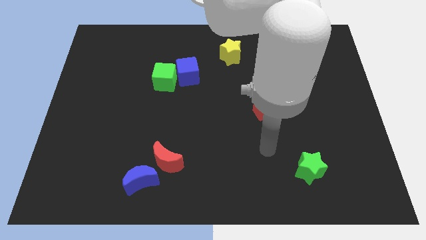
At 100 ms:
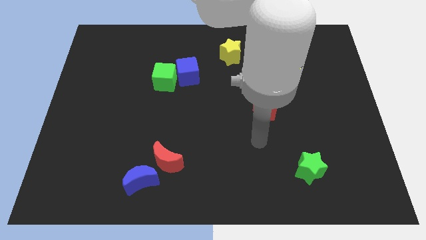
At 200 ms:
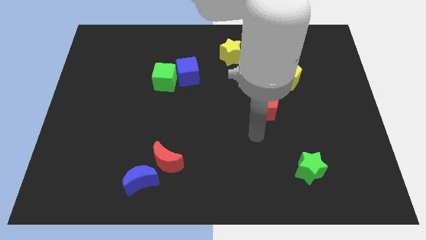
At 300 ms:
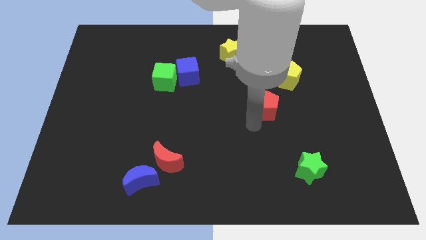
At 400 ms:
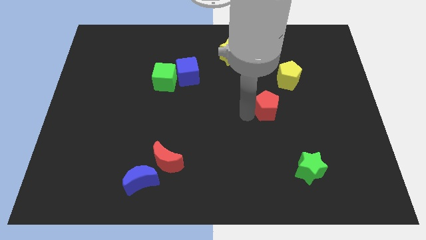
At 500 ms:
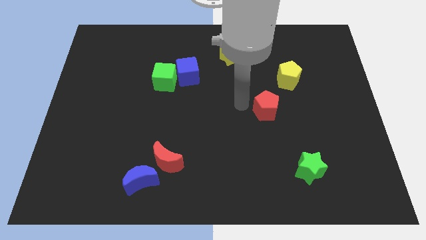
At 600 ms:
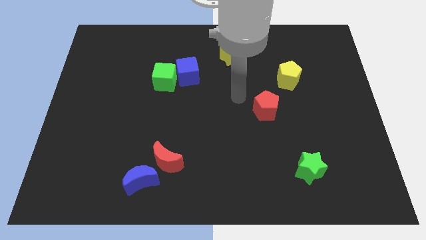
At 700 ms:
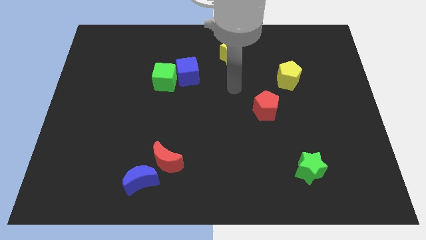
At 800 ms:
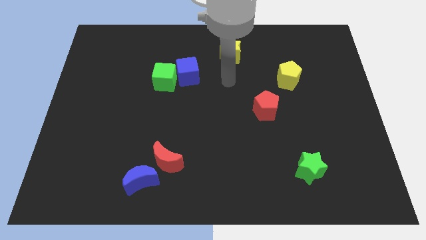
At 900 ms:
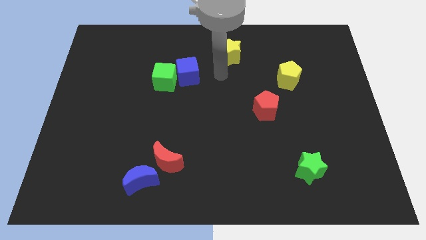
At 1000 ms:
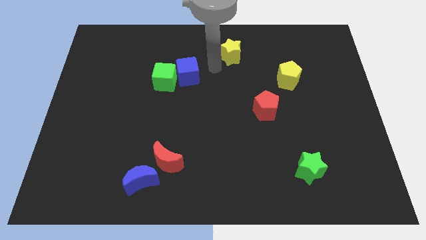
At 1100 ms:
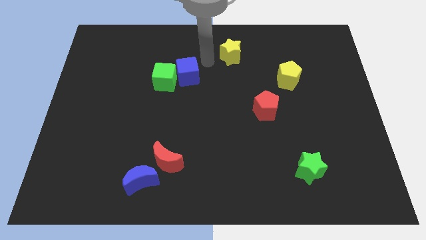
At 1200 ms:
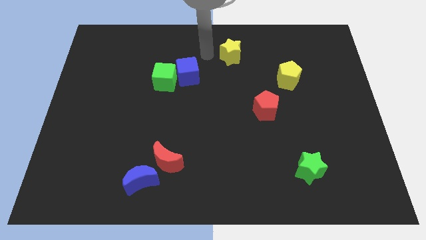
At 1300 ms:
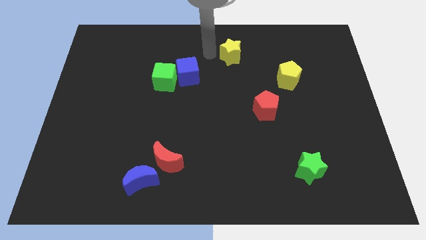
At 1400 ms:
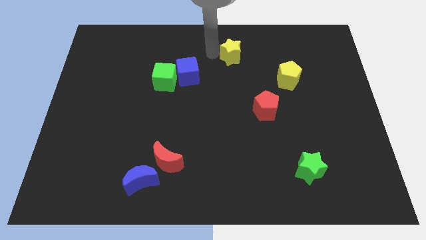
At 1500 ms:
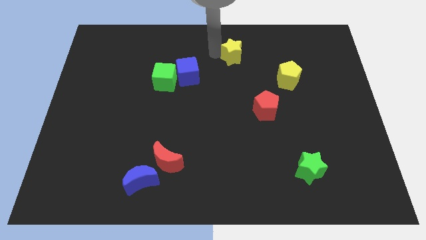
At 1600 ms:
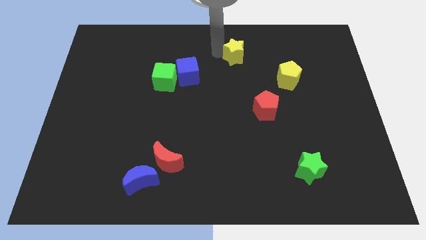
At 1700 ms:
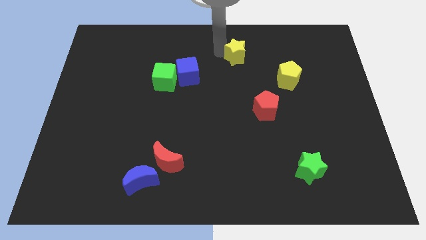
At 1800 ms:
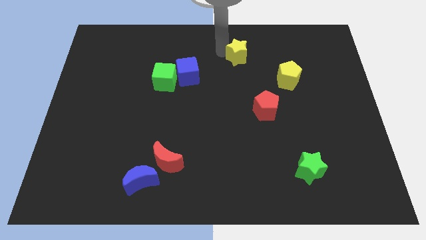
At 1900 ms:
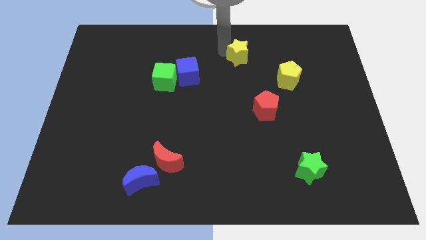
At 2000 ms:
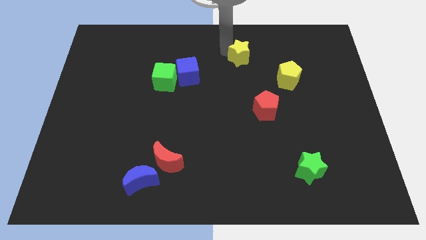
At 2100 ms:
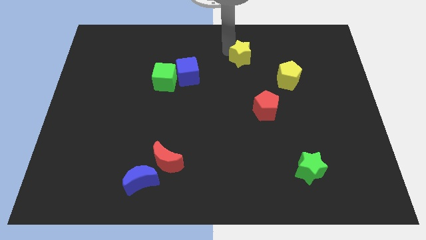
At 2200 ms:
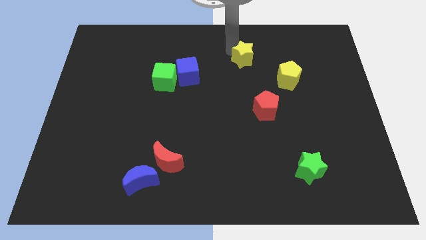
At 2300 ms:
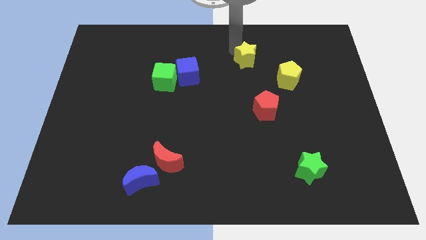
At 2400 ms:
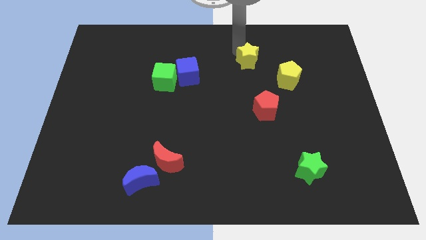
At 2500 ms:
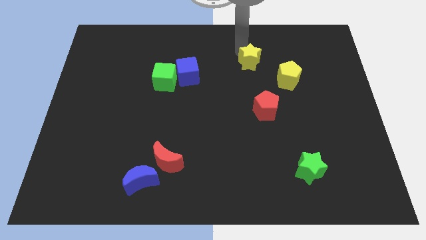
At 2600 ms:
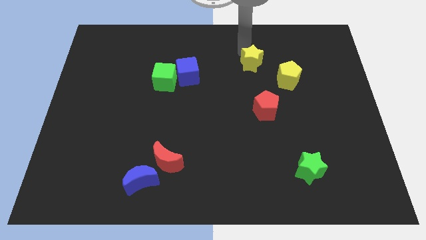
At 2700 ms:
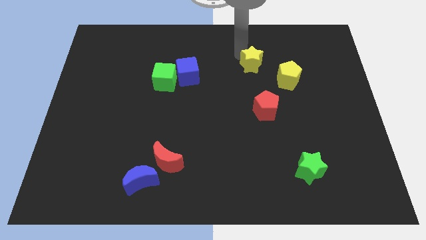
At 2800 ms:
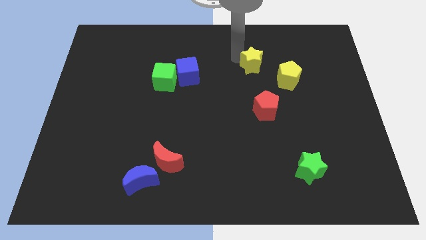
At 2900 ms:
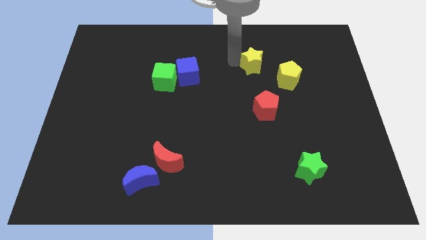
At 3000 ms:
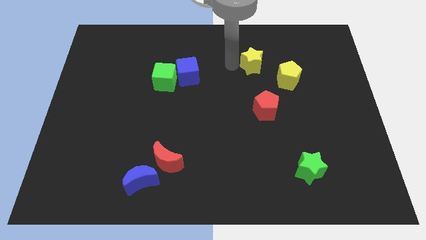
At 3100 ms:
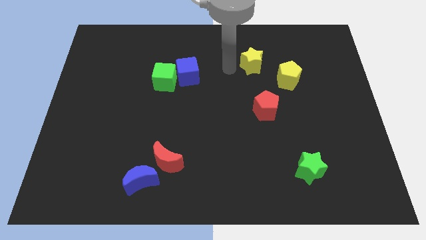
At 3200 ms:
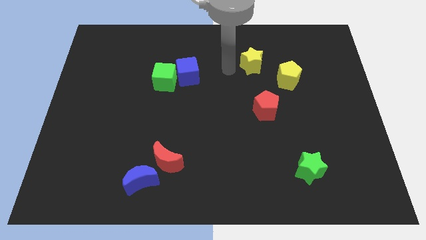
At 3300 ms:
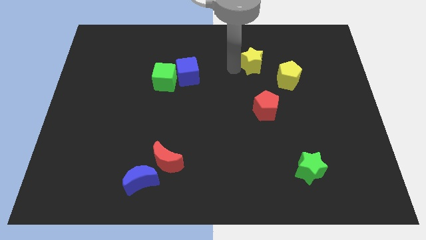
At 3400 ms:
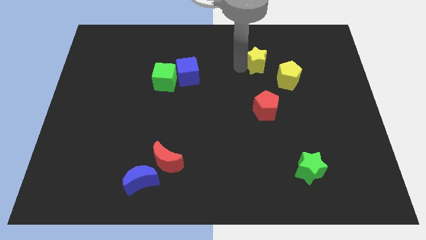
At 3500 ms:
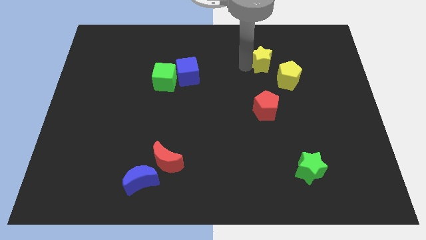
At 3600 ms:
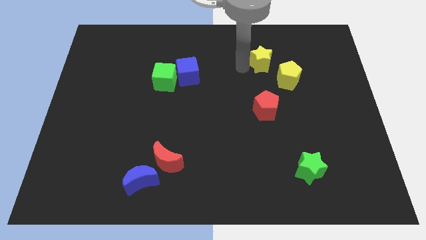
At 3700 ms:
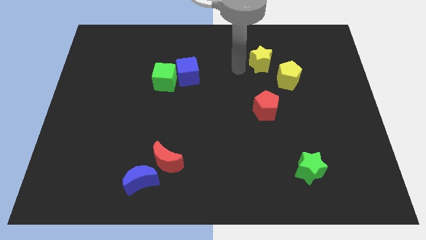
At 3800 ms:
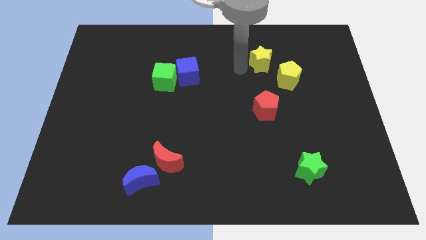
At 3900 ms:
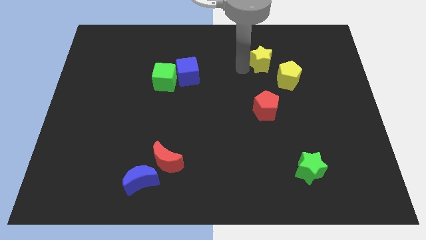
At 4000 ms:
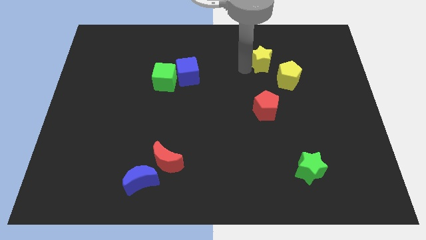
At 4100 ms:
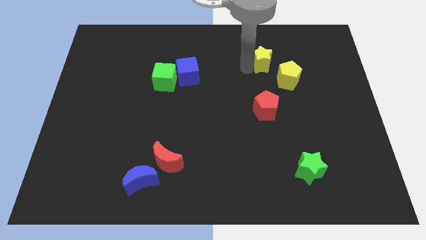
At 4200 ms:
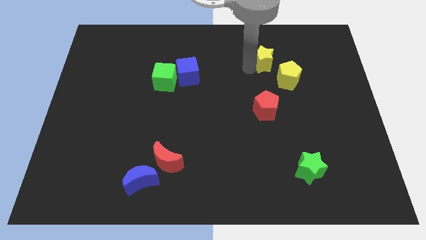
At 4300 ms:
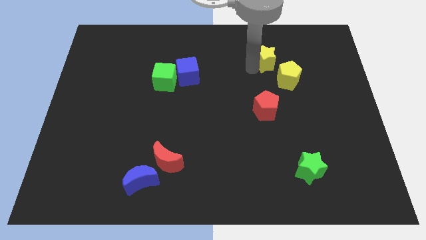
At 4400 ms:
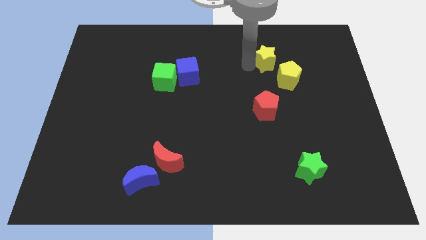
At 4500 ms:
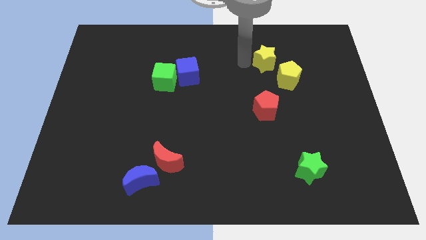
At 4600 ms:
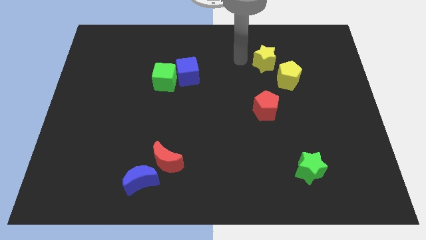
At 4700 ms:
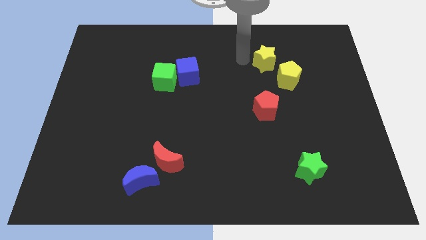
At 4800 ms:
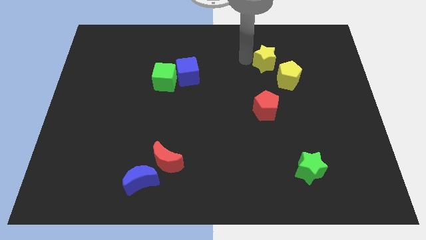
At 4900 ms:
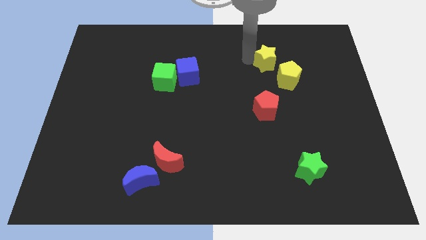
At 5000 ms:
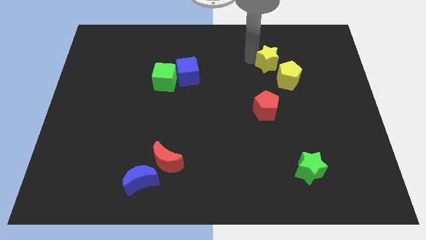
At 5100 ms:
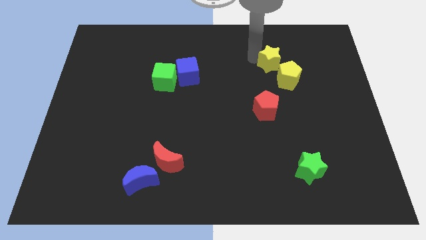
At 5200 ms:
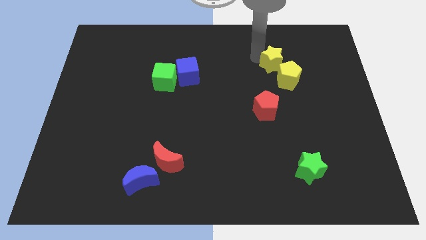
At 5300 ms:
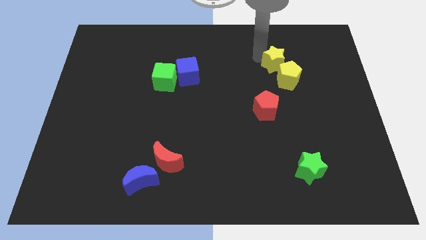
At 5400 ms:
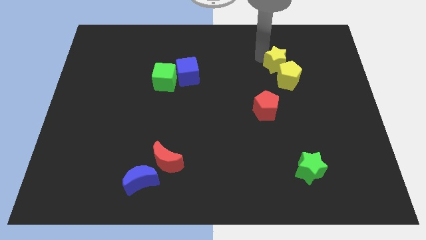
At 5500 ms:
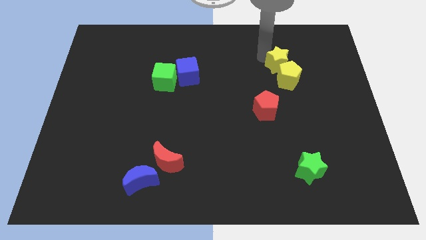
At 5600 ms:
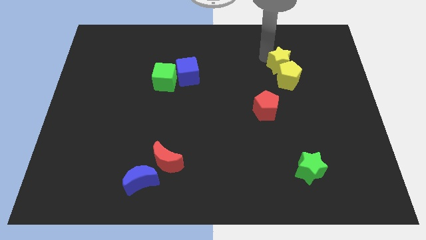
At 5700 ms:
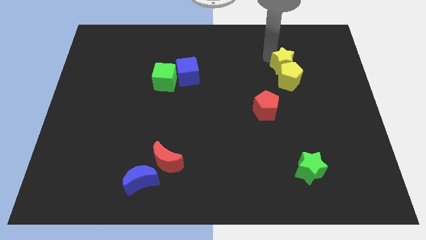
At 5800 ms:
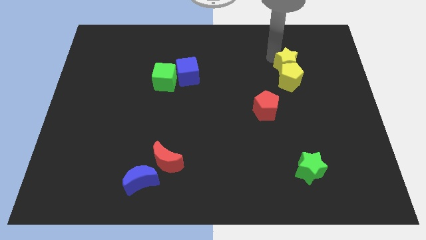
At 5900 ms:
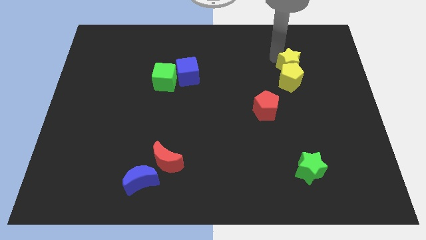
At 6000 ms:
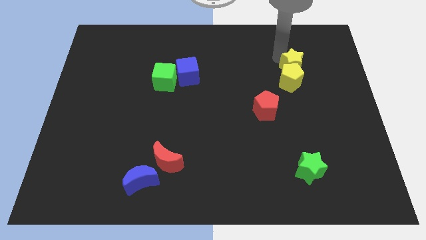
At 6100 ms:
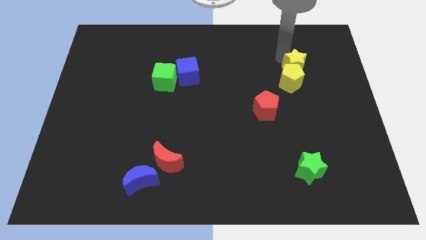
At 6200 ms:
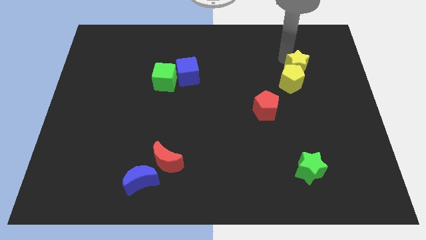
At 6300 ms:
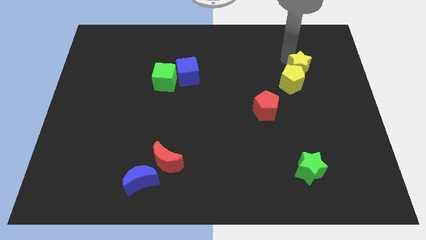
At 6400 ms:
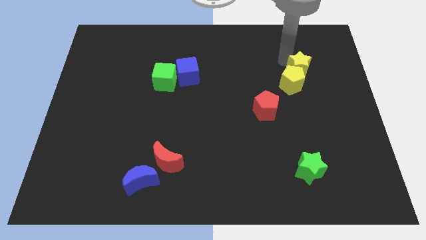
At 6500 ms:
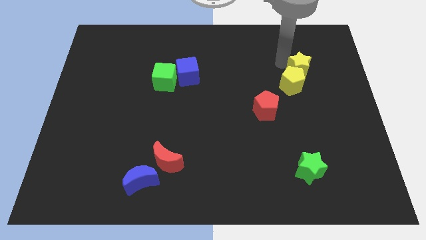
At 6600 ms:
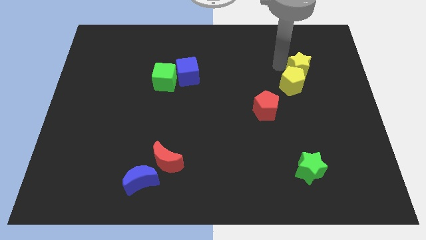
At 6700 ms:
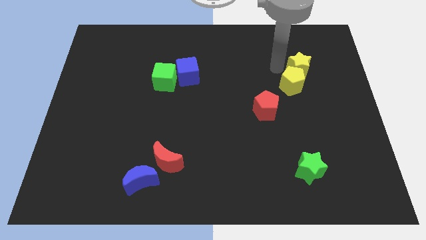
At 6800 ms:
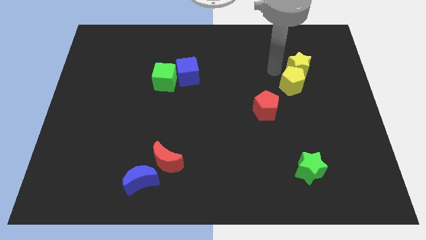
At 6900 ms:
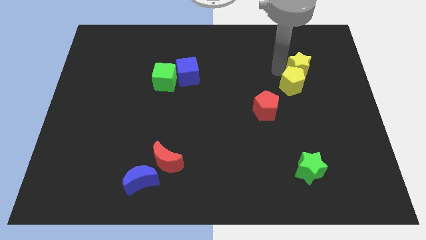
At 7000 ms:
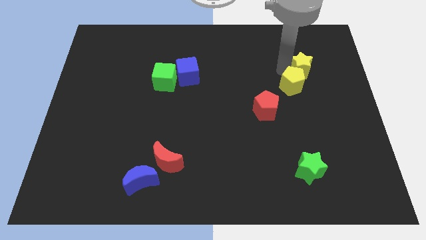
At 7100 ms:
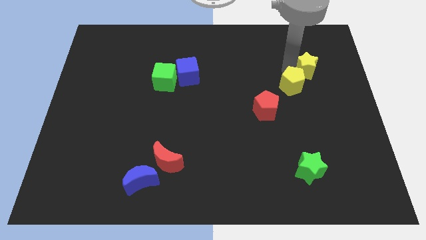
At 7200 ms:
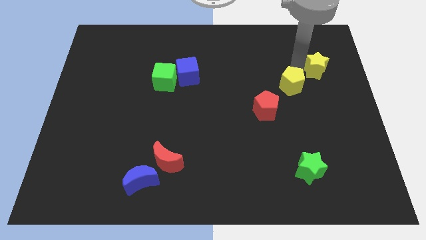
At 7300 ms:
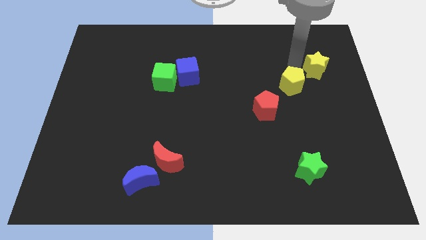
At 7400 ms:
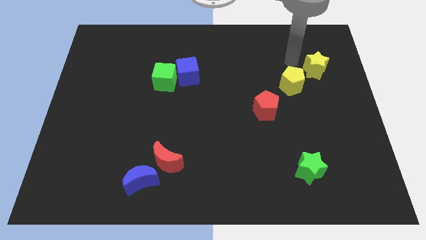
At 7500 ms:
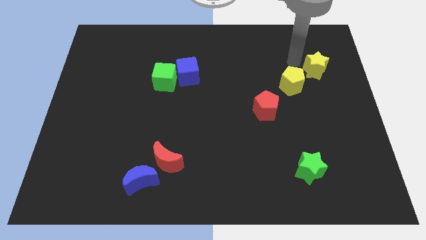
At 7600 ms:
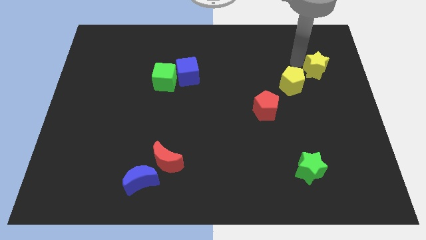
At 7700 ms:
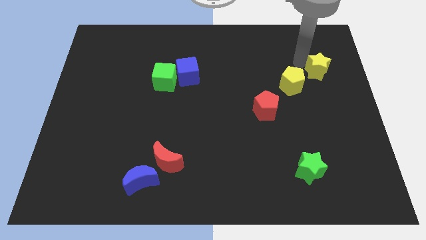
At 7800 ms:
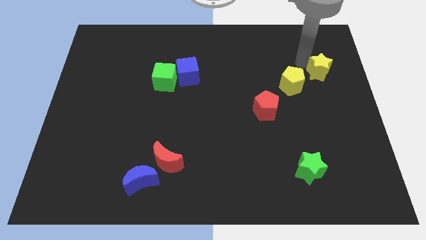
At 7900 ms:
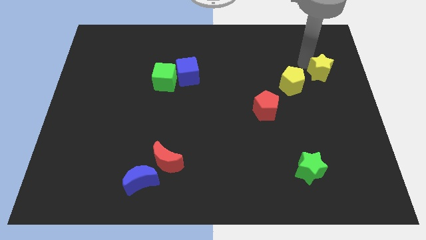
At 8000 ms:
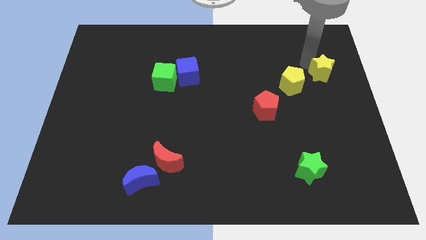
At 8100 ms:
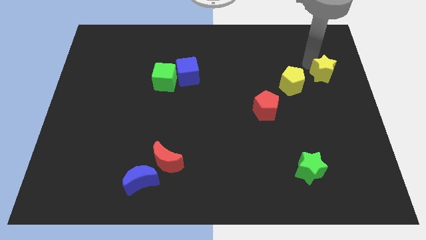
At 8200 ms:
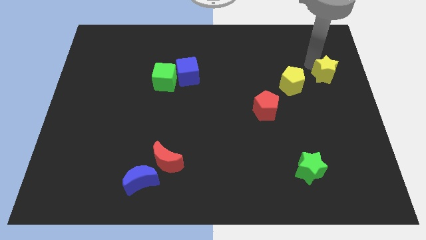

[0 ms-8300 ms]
slide the yellow star to the right side of the board
